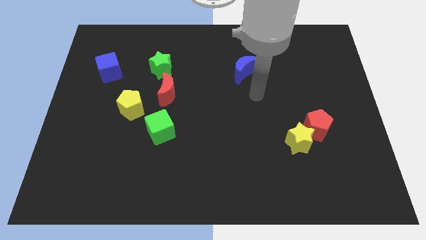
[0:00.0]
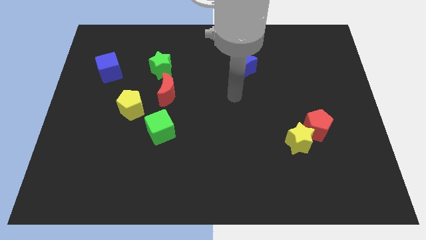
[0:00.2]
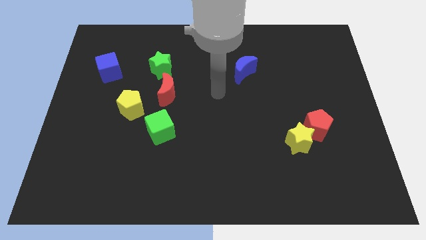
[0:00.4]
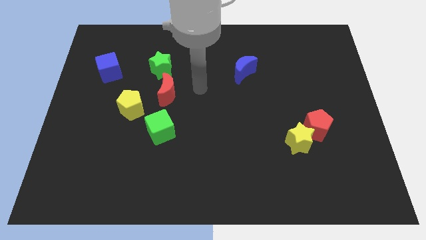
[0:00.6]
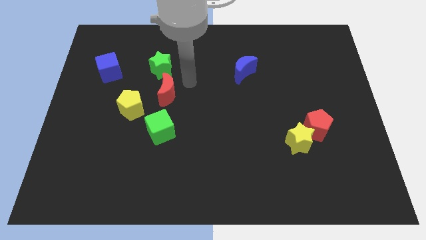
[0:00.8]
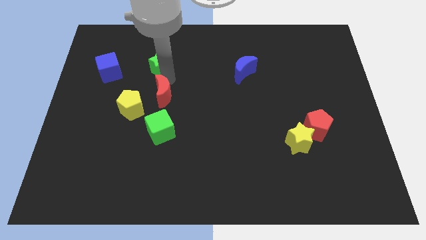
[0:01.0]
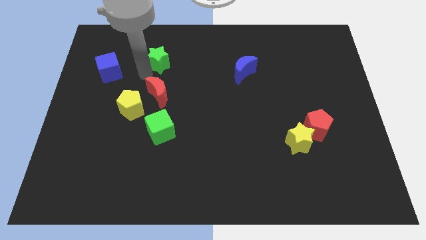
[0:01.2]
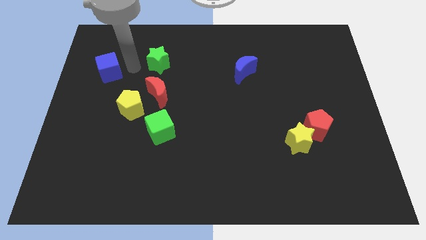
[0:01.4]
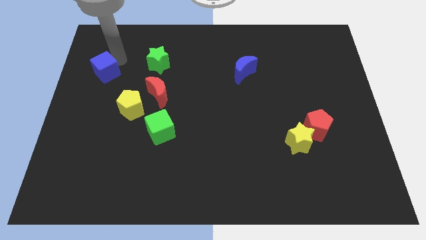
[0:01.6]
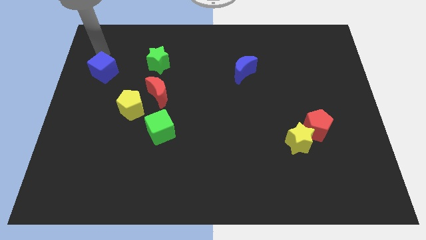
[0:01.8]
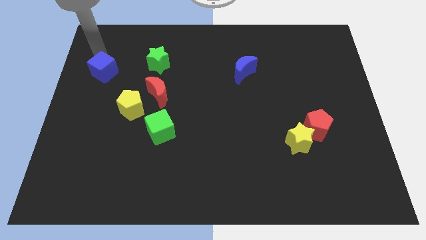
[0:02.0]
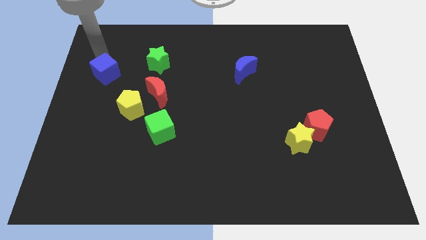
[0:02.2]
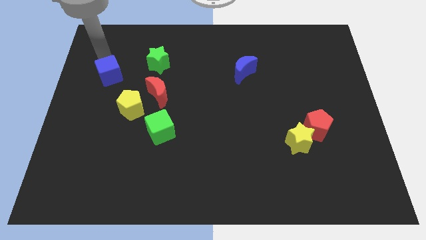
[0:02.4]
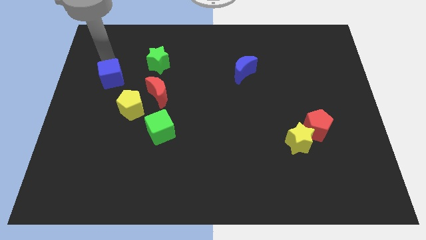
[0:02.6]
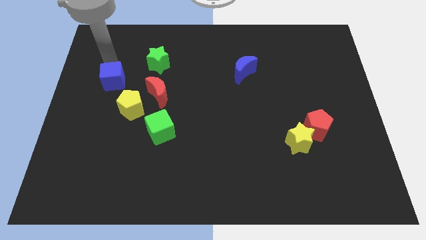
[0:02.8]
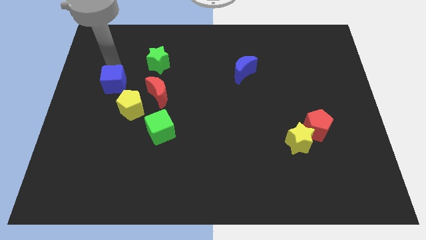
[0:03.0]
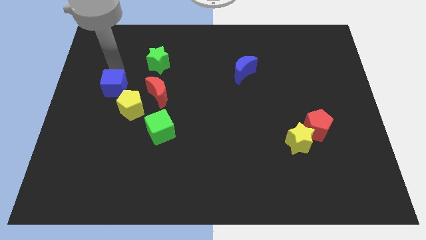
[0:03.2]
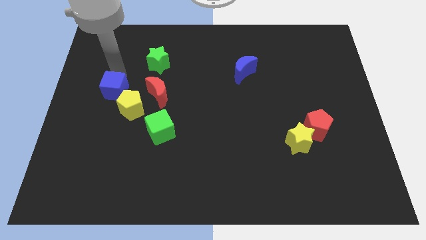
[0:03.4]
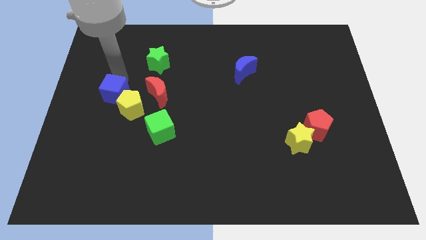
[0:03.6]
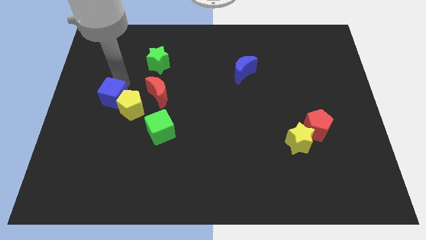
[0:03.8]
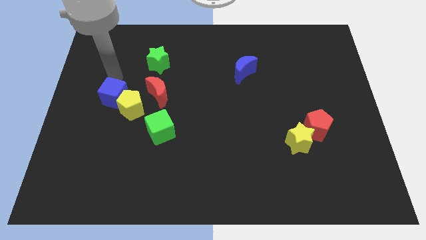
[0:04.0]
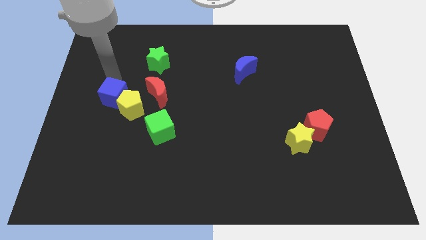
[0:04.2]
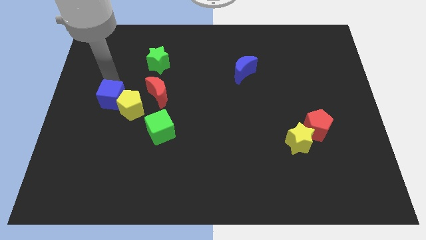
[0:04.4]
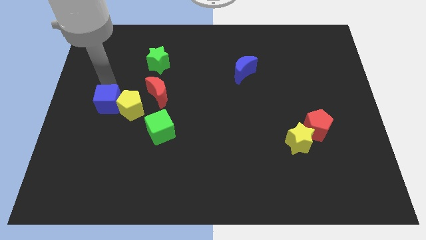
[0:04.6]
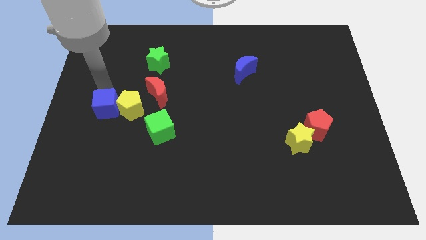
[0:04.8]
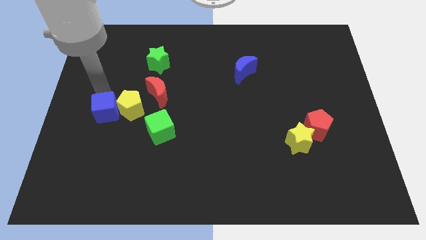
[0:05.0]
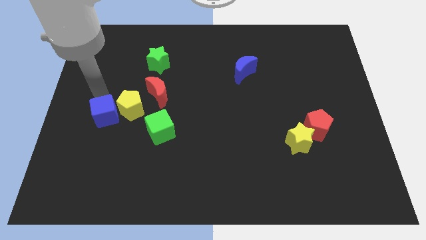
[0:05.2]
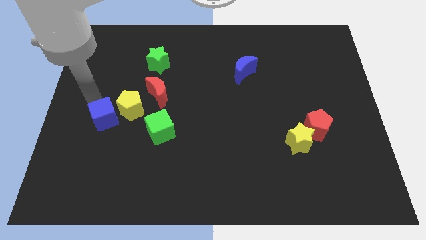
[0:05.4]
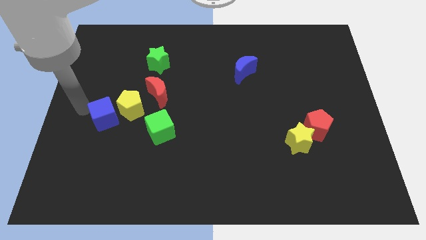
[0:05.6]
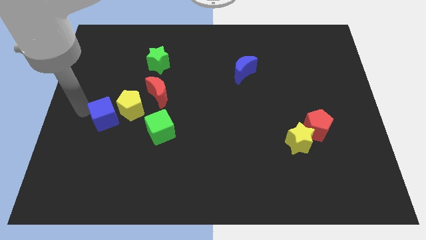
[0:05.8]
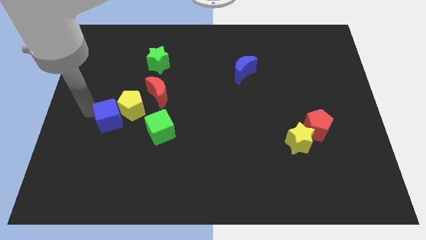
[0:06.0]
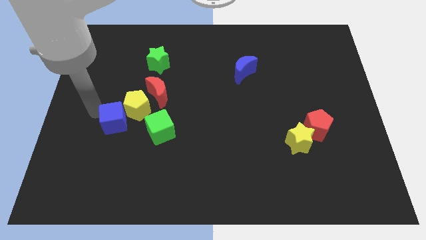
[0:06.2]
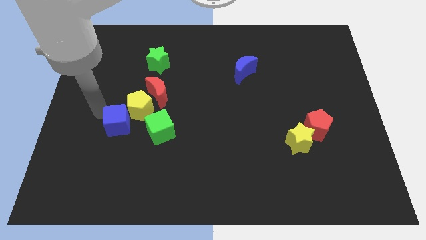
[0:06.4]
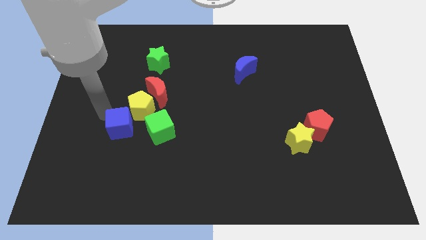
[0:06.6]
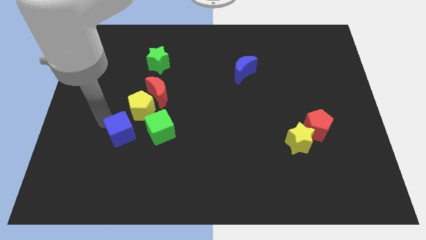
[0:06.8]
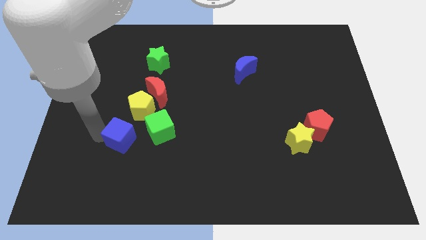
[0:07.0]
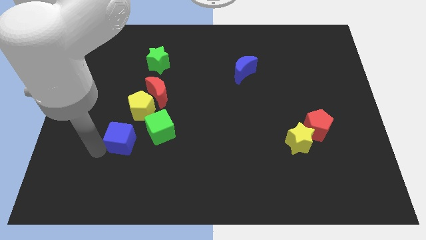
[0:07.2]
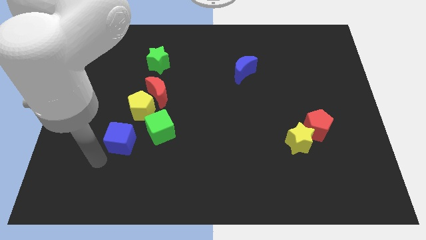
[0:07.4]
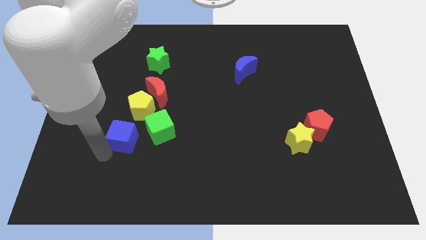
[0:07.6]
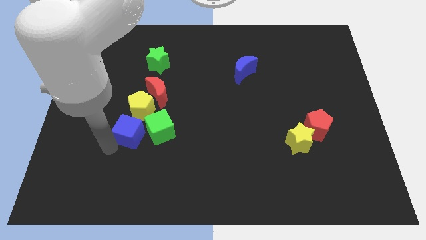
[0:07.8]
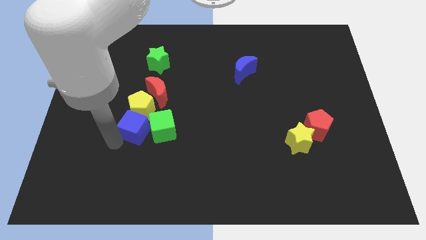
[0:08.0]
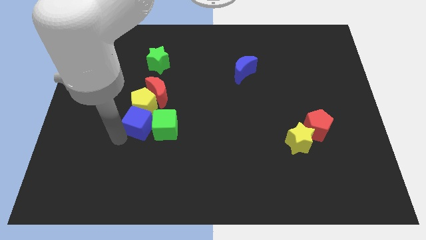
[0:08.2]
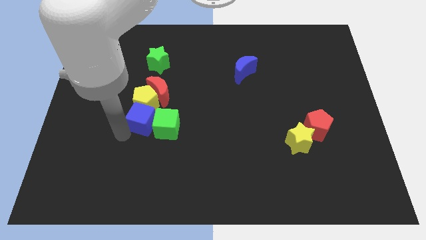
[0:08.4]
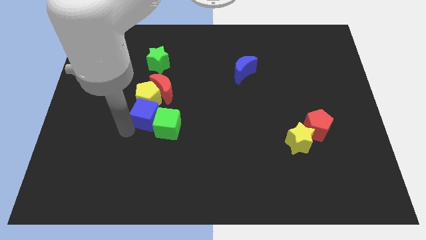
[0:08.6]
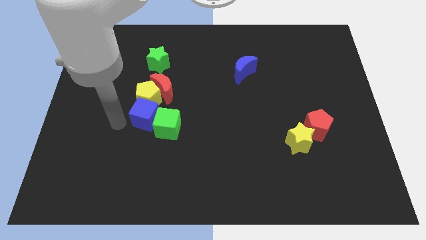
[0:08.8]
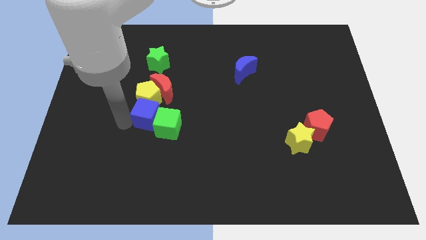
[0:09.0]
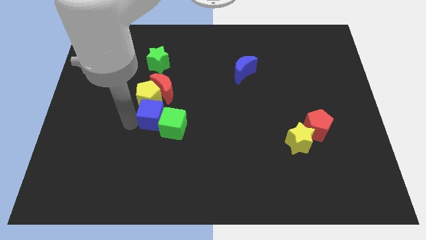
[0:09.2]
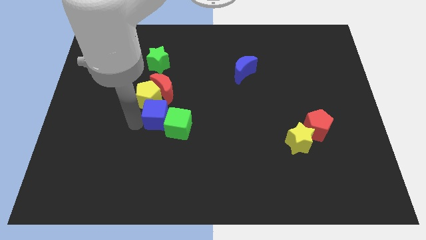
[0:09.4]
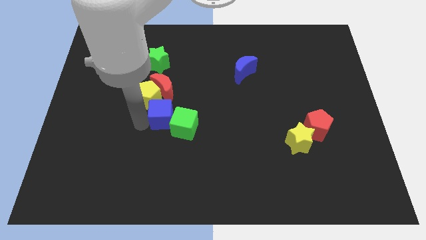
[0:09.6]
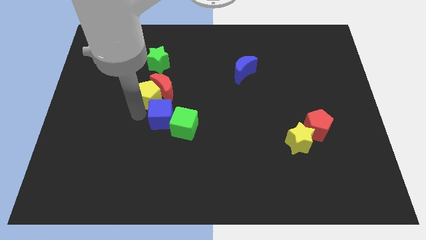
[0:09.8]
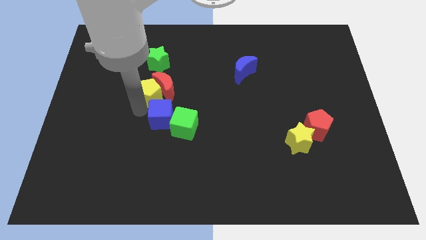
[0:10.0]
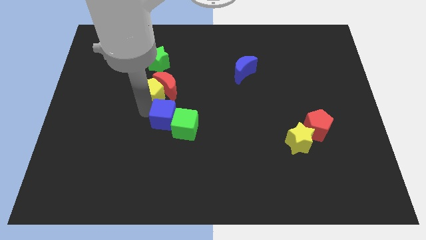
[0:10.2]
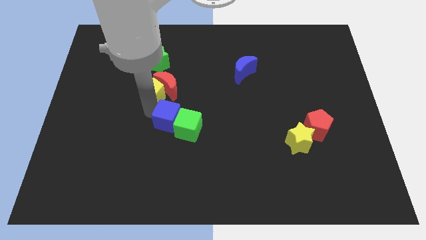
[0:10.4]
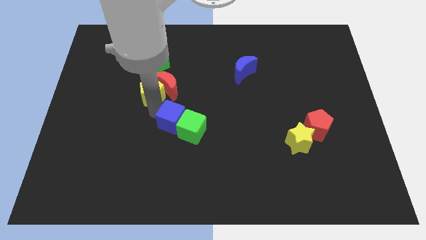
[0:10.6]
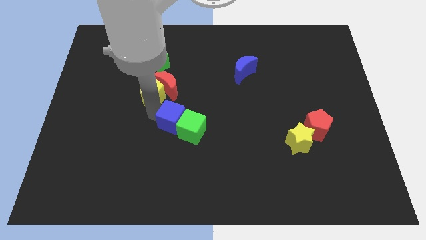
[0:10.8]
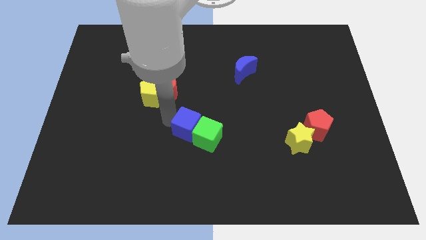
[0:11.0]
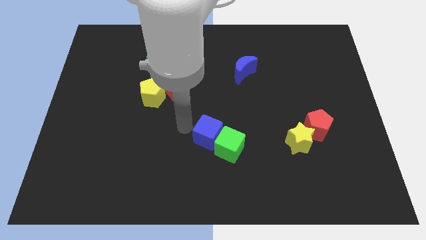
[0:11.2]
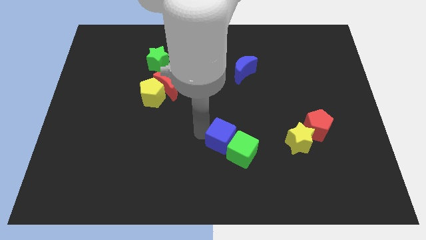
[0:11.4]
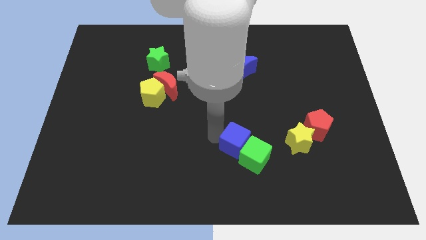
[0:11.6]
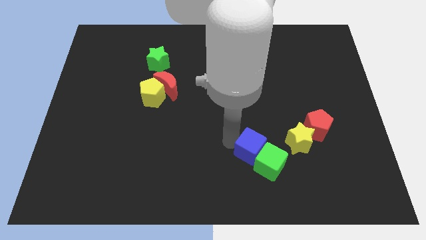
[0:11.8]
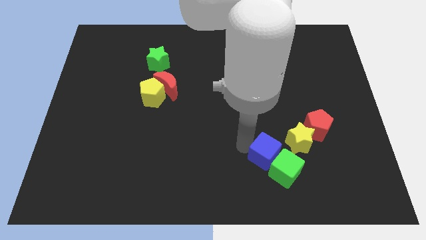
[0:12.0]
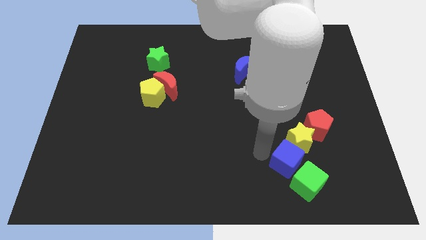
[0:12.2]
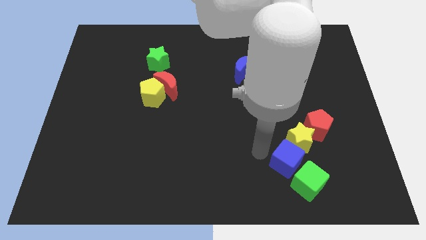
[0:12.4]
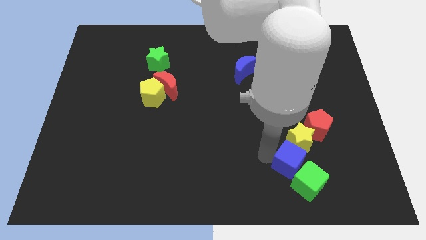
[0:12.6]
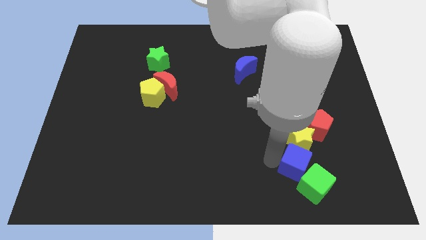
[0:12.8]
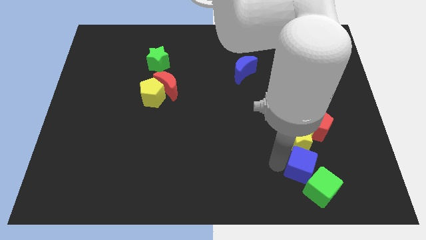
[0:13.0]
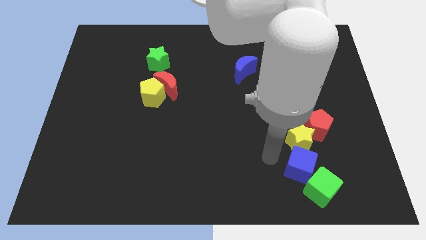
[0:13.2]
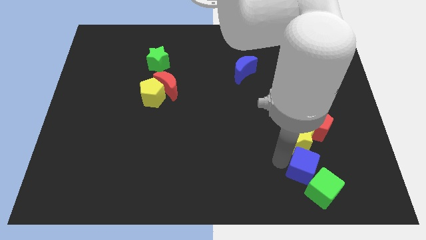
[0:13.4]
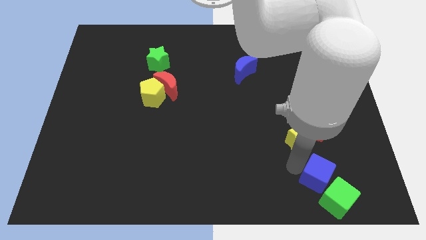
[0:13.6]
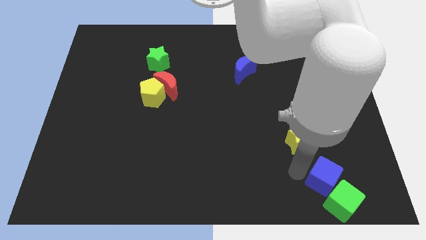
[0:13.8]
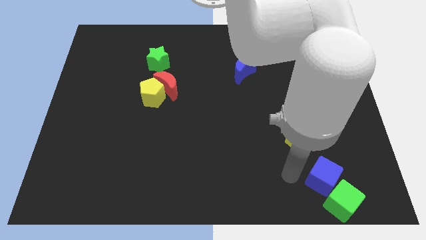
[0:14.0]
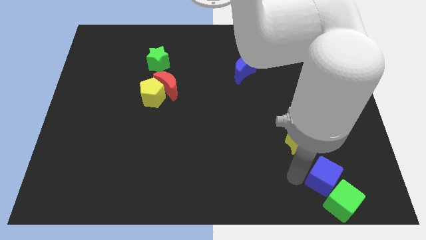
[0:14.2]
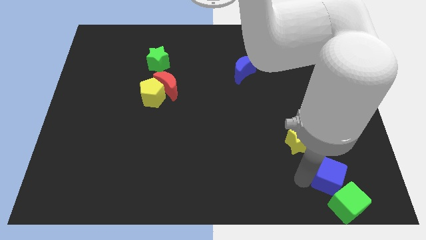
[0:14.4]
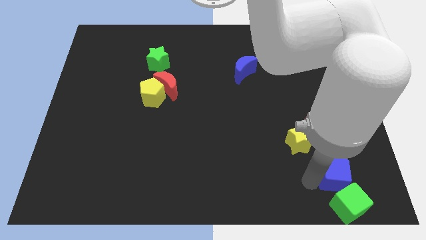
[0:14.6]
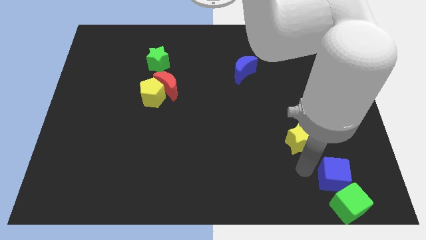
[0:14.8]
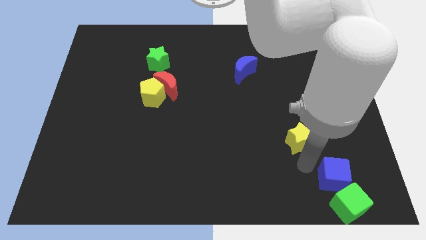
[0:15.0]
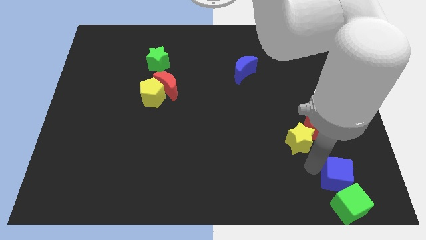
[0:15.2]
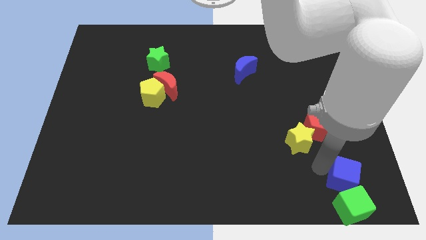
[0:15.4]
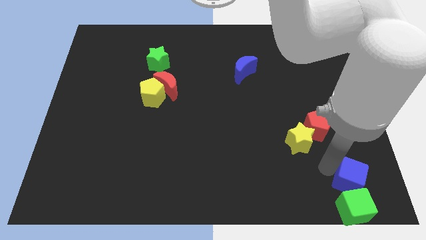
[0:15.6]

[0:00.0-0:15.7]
move the blue cube to the bottom right corner
